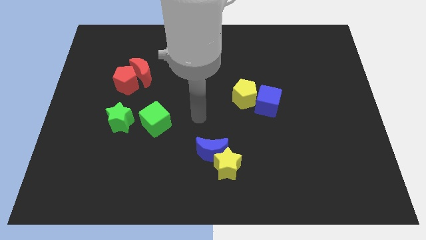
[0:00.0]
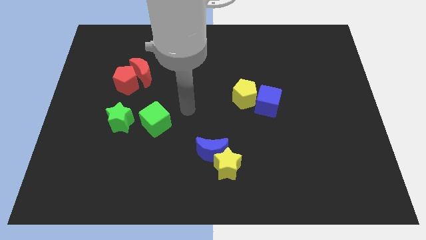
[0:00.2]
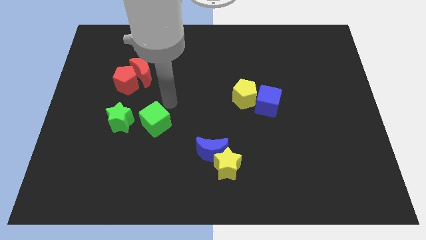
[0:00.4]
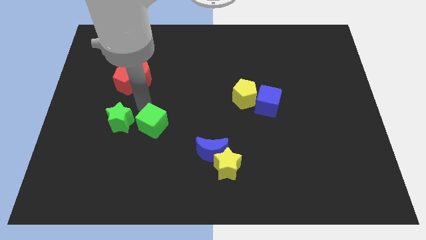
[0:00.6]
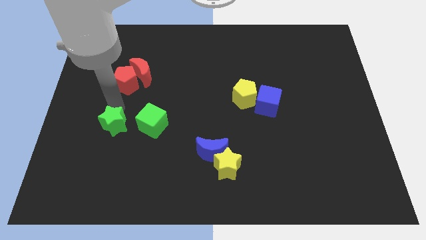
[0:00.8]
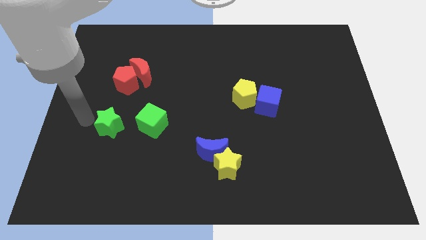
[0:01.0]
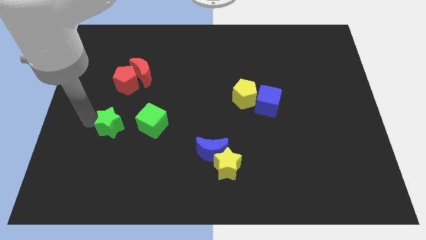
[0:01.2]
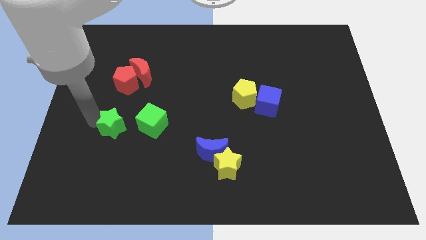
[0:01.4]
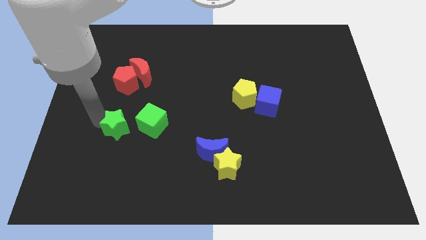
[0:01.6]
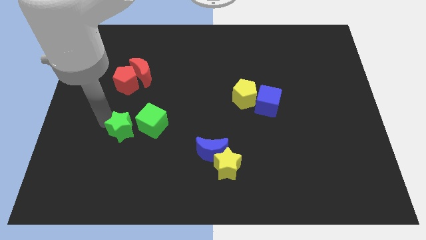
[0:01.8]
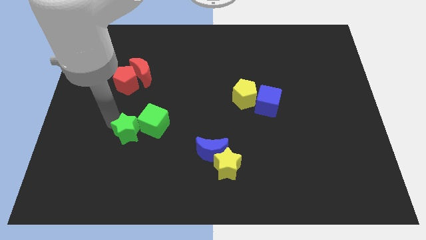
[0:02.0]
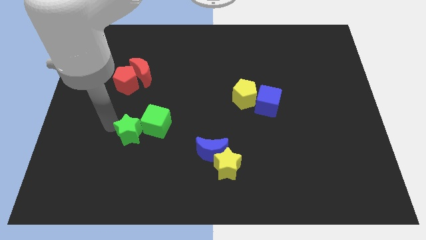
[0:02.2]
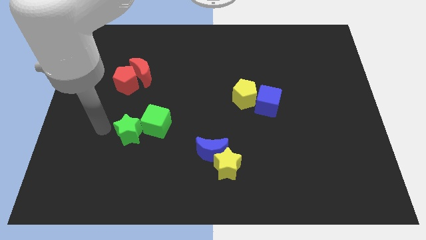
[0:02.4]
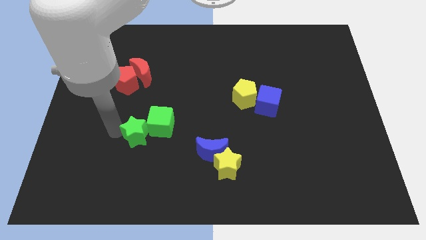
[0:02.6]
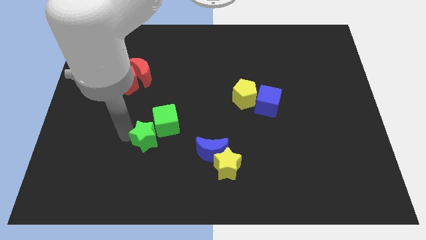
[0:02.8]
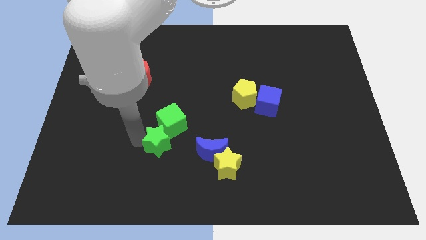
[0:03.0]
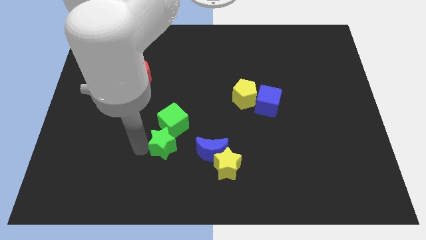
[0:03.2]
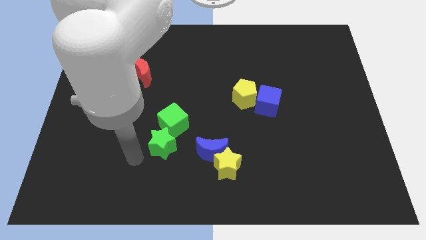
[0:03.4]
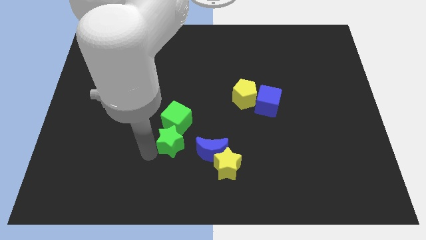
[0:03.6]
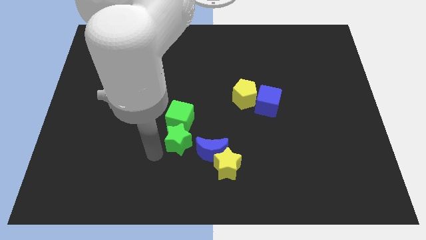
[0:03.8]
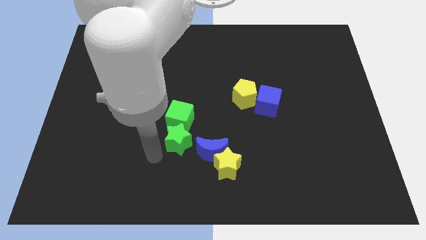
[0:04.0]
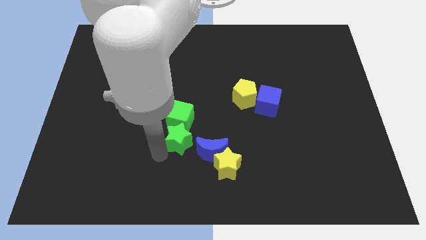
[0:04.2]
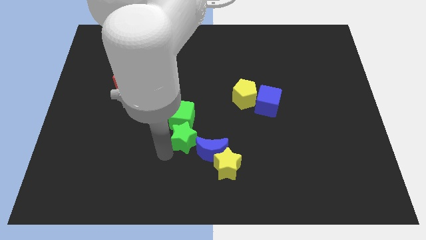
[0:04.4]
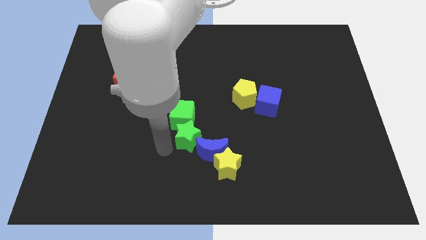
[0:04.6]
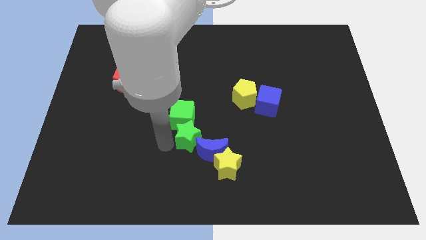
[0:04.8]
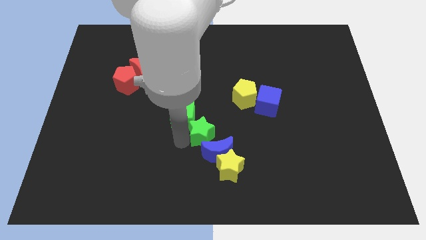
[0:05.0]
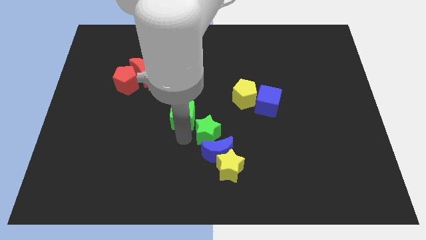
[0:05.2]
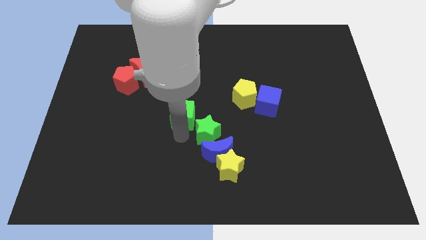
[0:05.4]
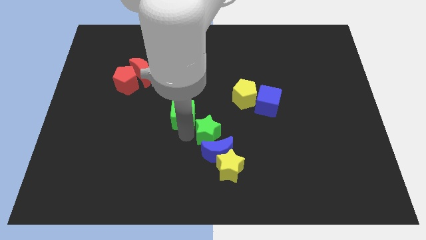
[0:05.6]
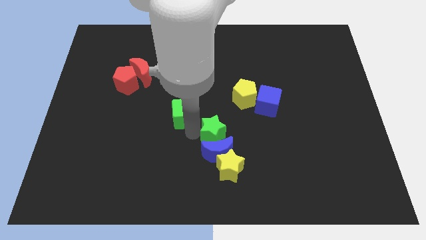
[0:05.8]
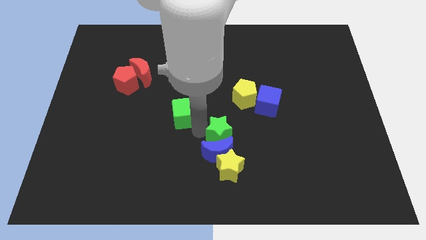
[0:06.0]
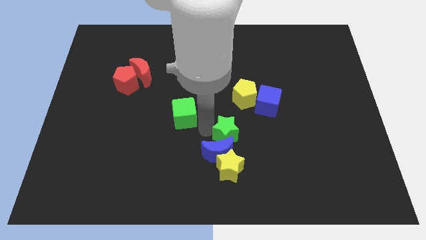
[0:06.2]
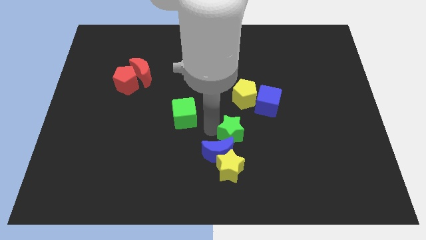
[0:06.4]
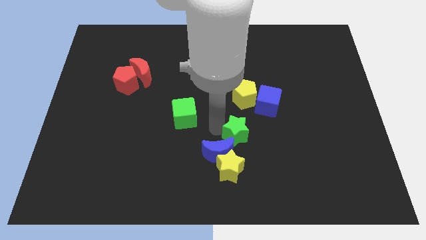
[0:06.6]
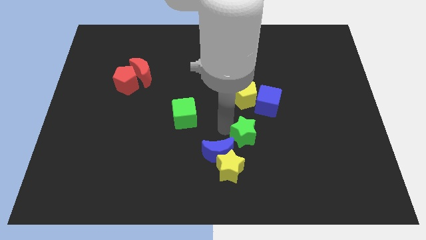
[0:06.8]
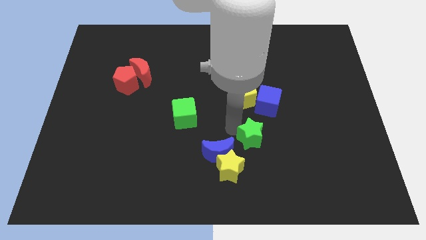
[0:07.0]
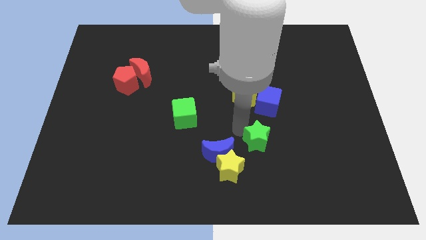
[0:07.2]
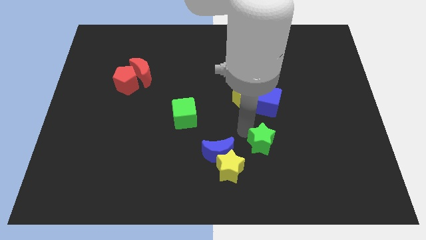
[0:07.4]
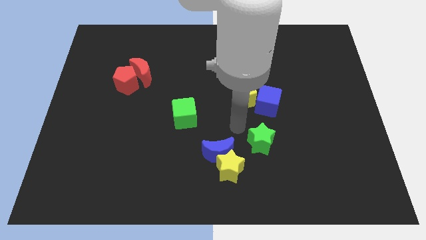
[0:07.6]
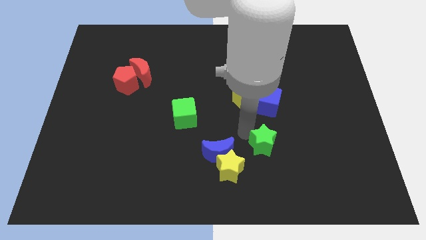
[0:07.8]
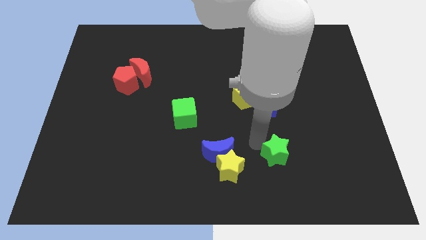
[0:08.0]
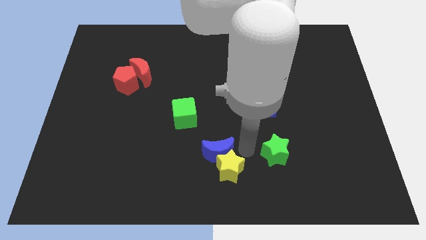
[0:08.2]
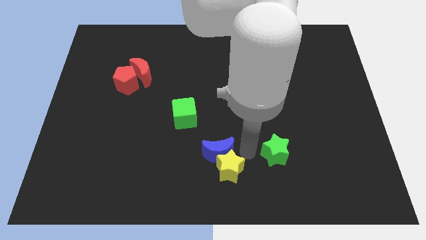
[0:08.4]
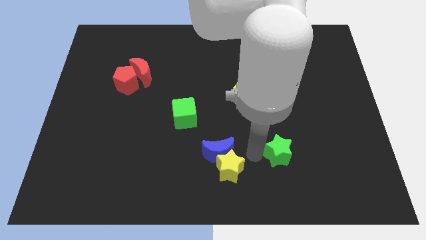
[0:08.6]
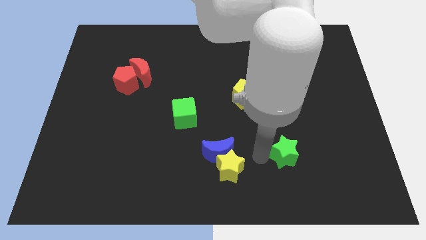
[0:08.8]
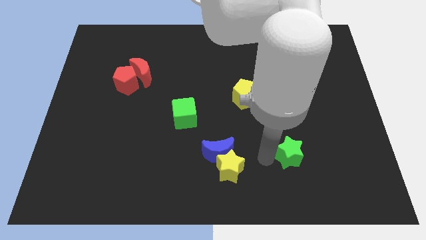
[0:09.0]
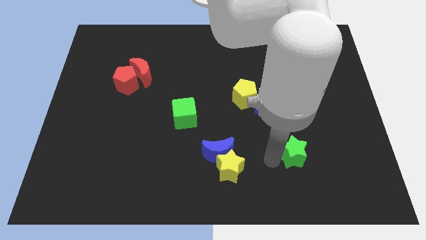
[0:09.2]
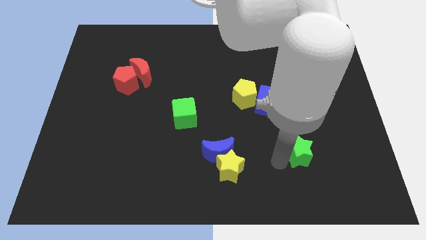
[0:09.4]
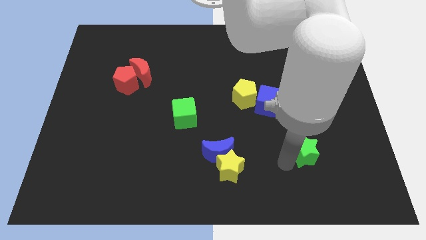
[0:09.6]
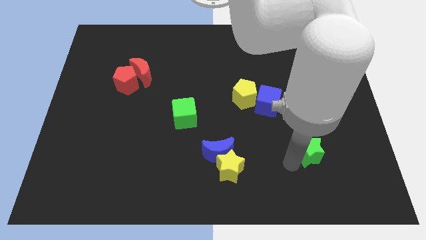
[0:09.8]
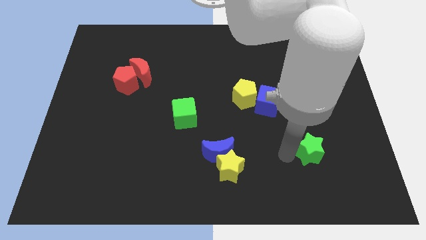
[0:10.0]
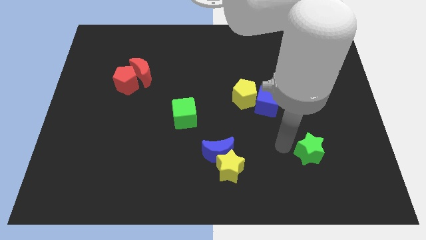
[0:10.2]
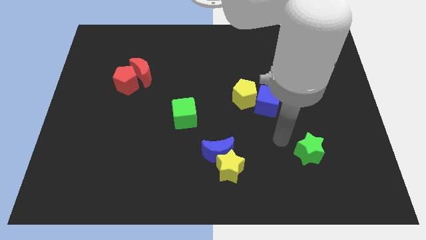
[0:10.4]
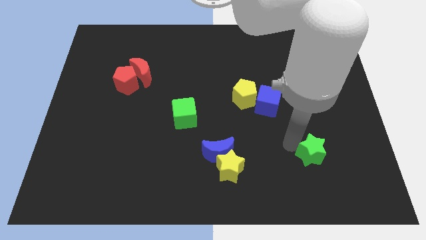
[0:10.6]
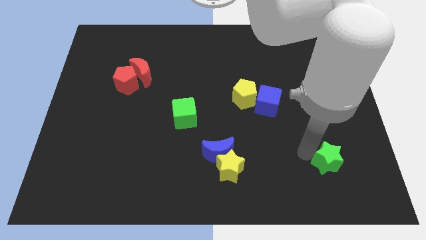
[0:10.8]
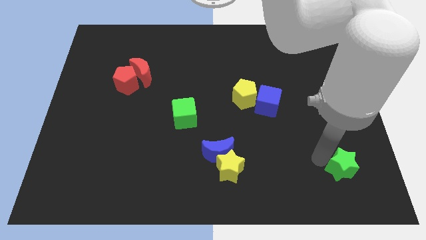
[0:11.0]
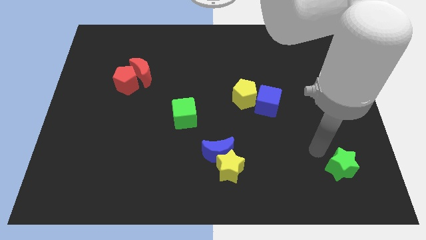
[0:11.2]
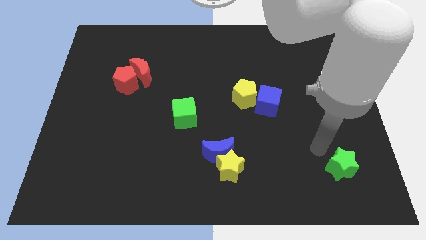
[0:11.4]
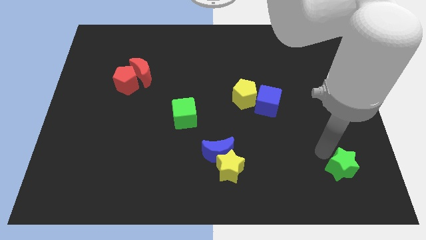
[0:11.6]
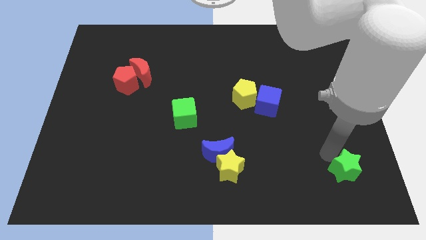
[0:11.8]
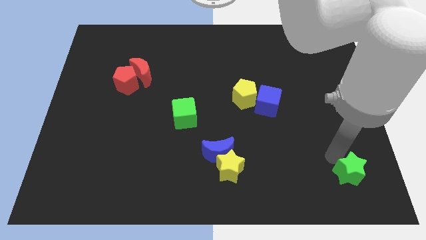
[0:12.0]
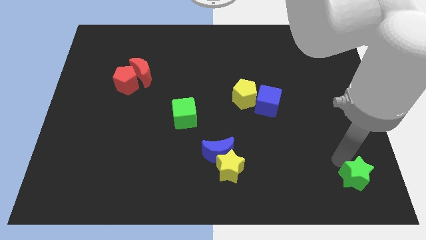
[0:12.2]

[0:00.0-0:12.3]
push the green star to the bottom right of the board

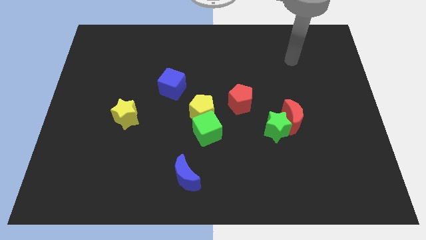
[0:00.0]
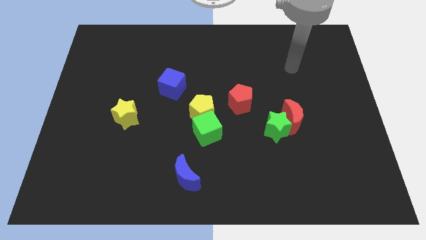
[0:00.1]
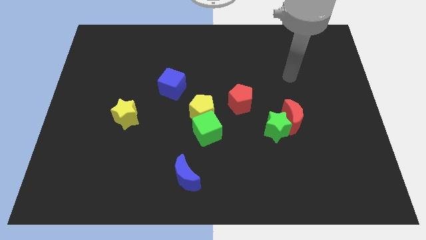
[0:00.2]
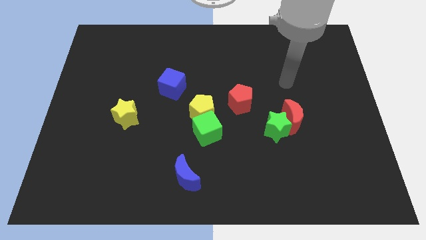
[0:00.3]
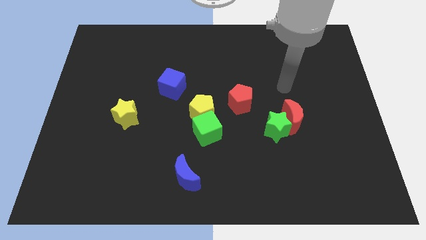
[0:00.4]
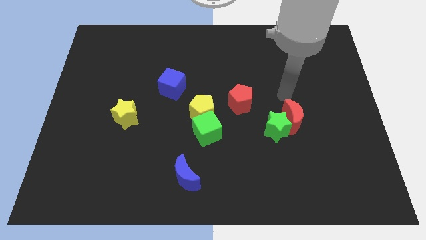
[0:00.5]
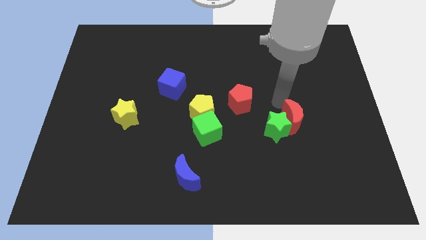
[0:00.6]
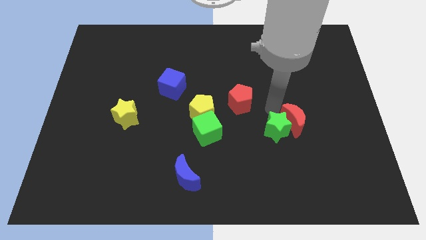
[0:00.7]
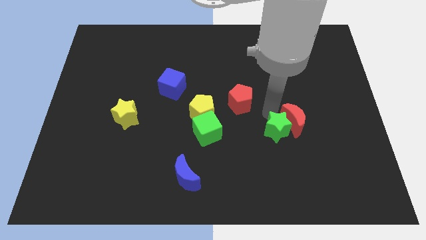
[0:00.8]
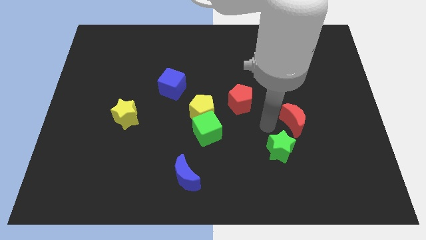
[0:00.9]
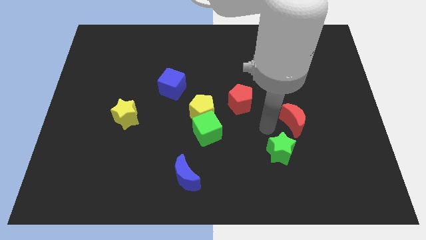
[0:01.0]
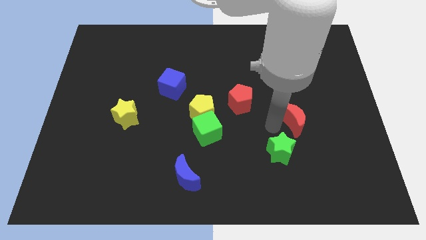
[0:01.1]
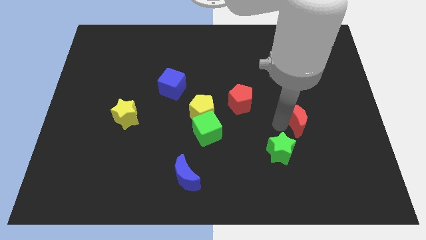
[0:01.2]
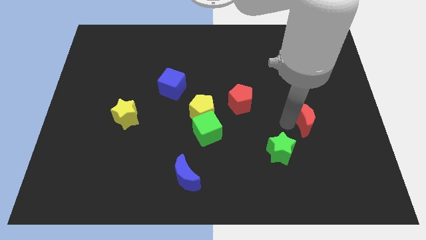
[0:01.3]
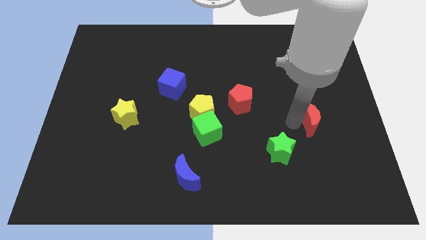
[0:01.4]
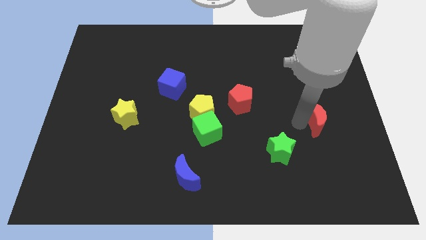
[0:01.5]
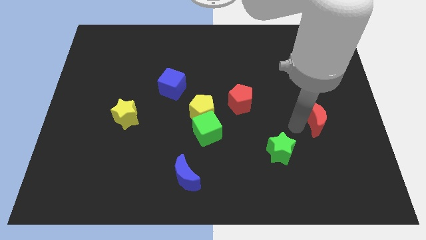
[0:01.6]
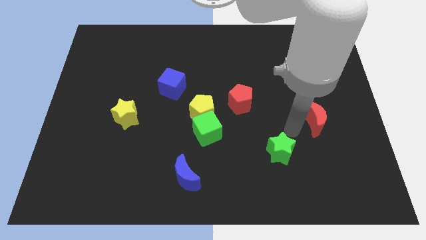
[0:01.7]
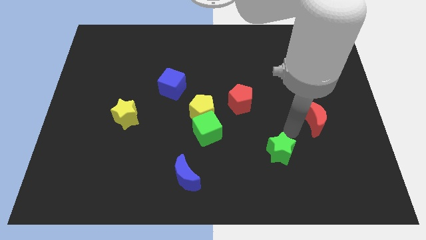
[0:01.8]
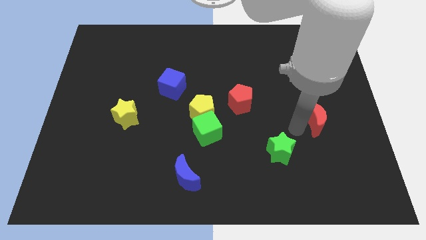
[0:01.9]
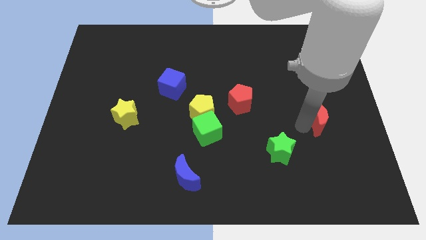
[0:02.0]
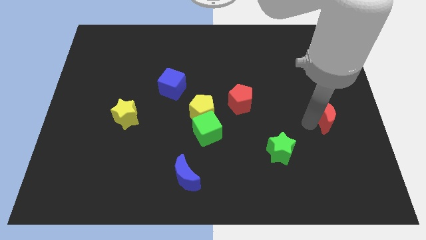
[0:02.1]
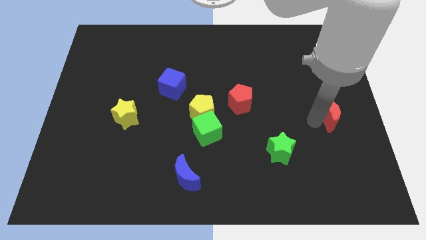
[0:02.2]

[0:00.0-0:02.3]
move the red moon to the center right
